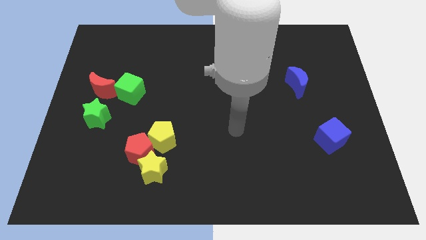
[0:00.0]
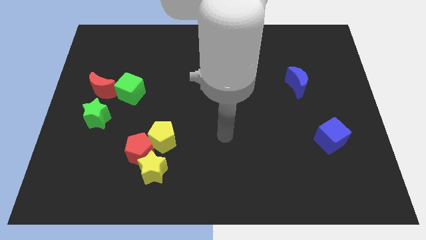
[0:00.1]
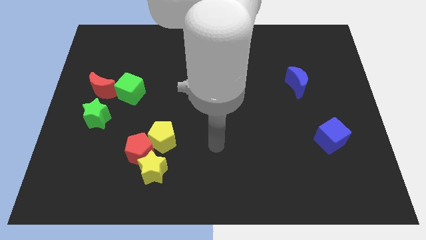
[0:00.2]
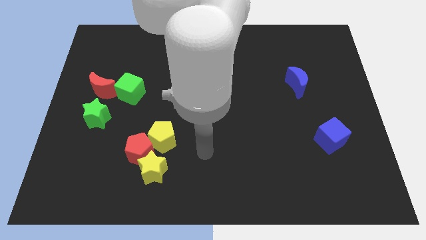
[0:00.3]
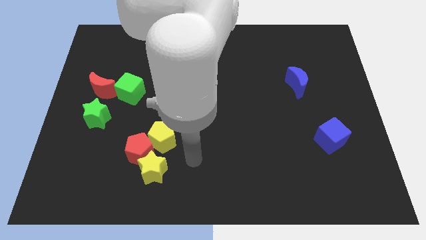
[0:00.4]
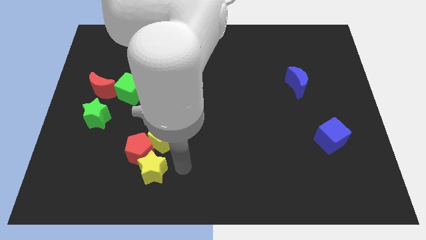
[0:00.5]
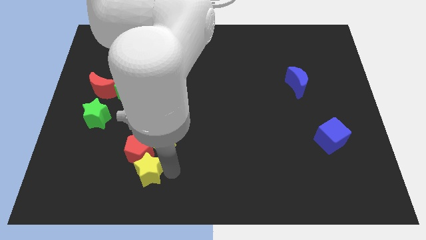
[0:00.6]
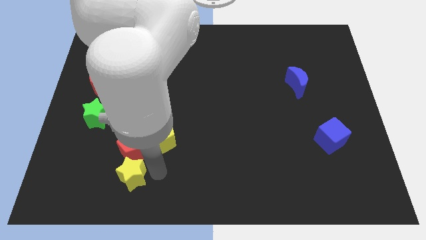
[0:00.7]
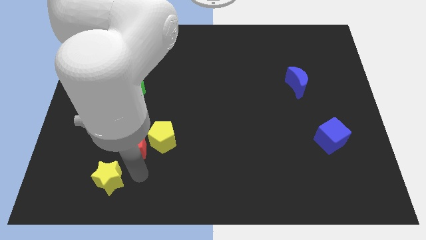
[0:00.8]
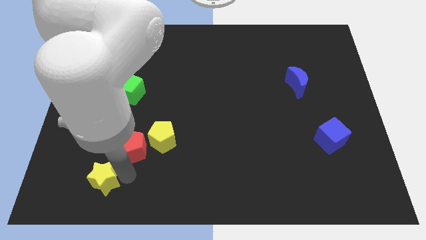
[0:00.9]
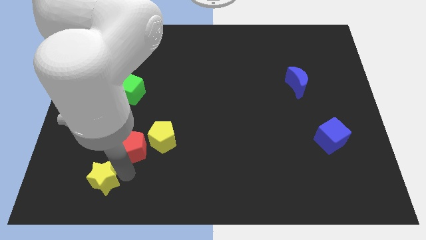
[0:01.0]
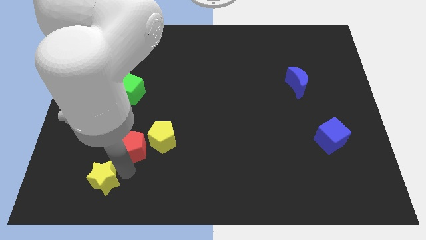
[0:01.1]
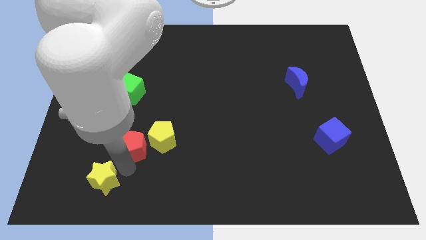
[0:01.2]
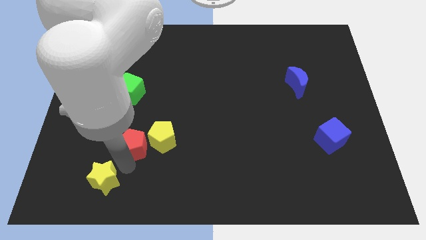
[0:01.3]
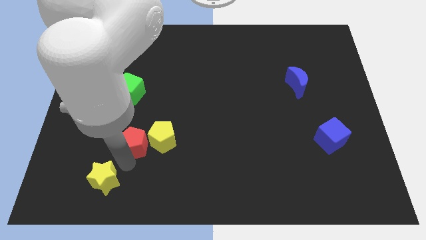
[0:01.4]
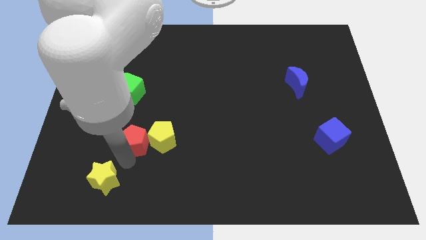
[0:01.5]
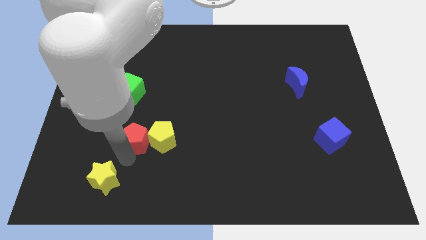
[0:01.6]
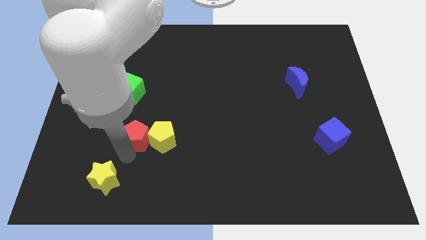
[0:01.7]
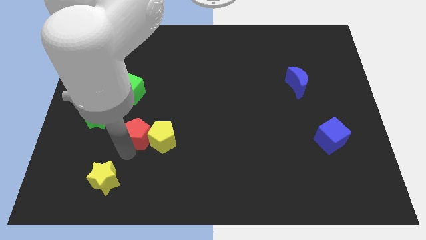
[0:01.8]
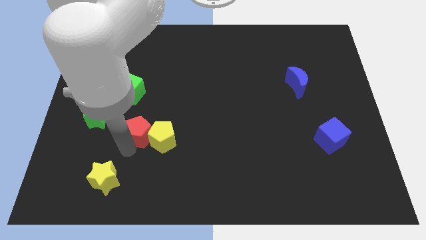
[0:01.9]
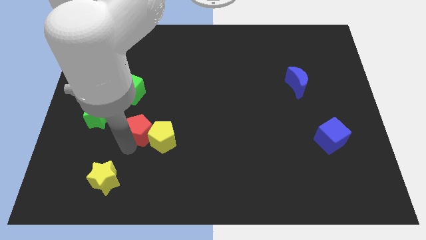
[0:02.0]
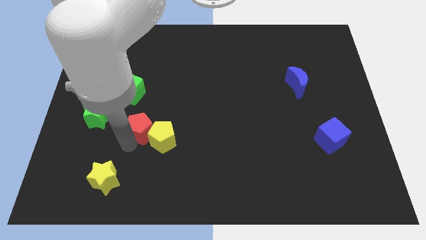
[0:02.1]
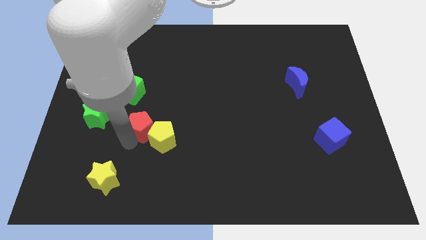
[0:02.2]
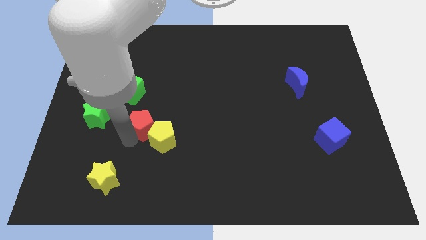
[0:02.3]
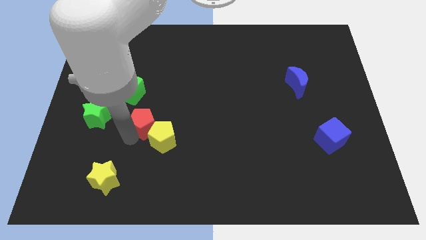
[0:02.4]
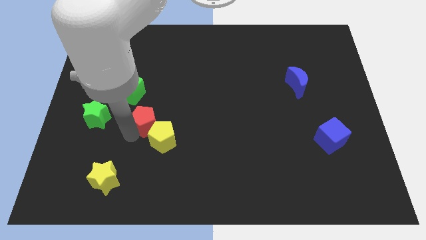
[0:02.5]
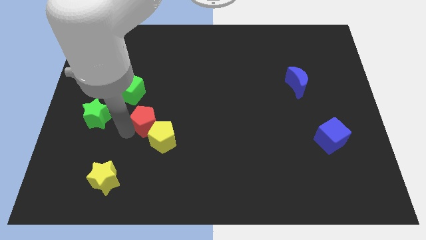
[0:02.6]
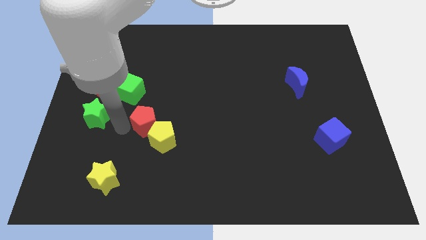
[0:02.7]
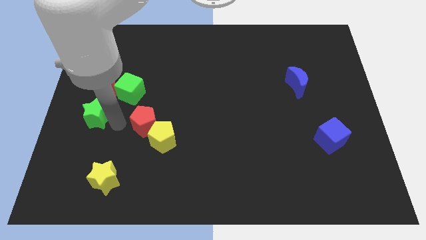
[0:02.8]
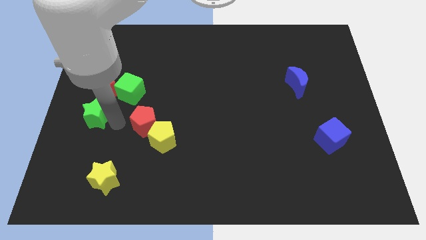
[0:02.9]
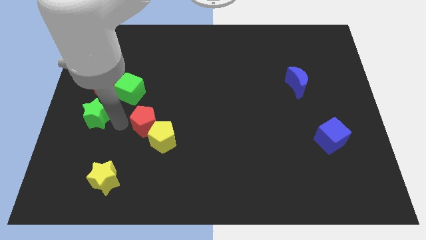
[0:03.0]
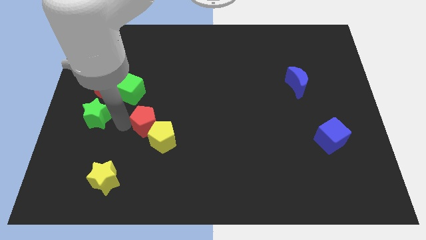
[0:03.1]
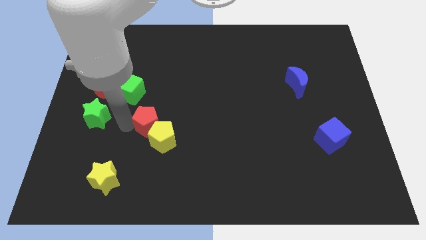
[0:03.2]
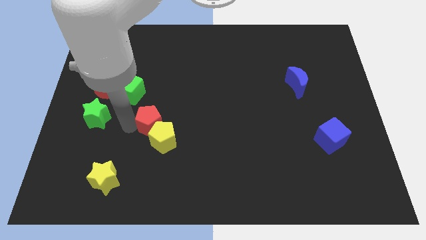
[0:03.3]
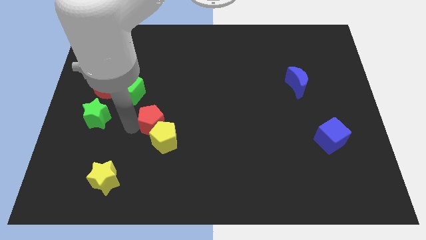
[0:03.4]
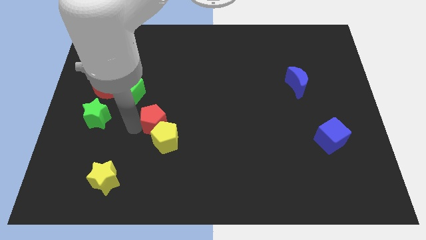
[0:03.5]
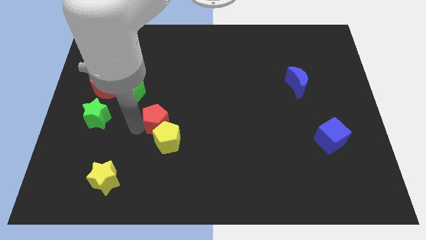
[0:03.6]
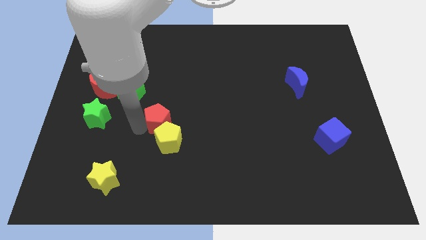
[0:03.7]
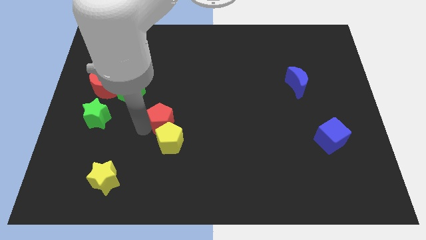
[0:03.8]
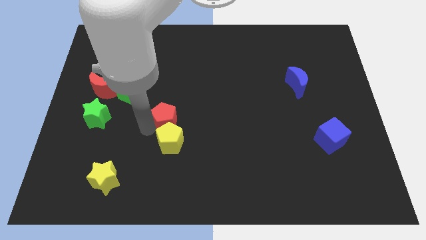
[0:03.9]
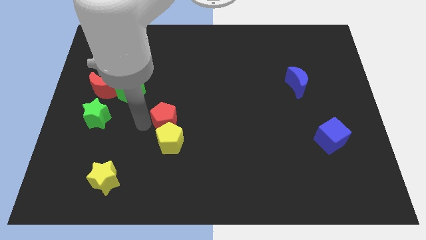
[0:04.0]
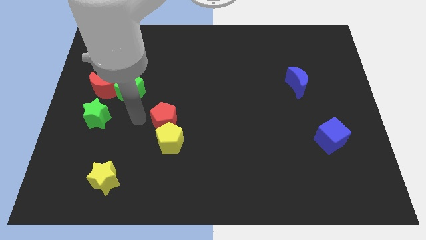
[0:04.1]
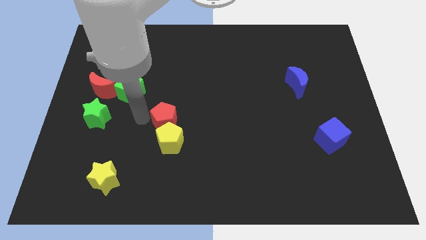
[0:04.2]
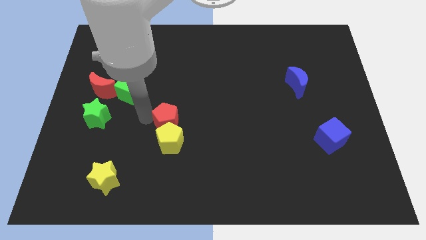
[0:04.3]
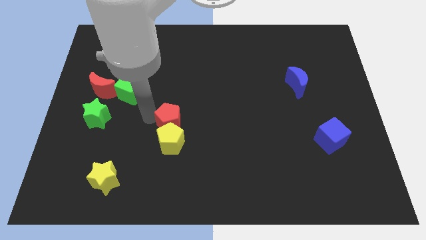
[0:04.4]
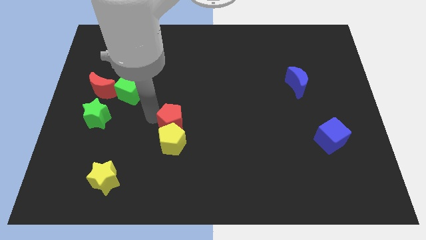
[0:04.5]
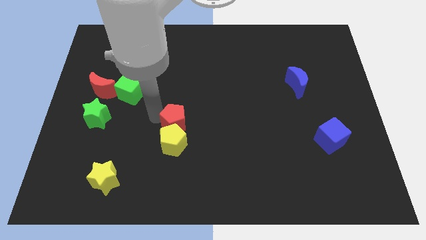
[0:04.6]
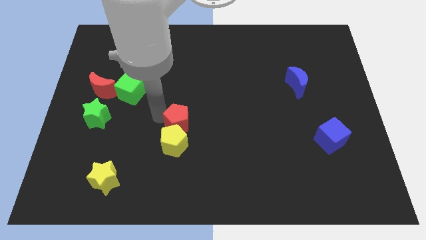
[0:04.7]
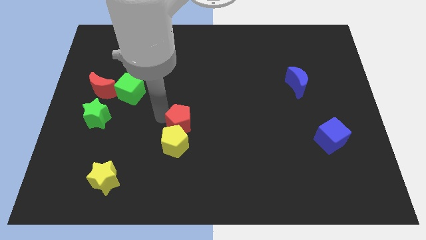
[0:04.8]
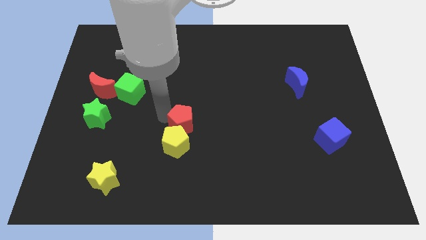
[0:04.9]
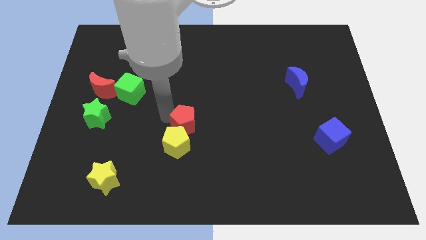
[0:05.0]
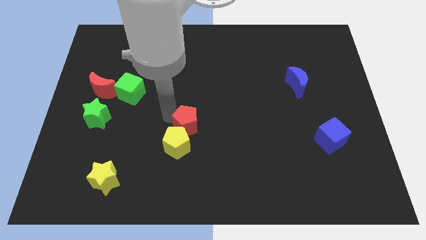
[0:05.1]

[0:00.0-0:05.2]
slightly push the red pentagon right

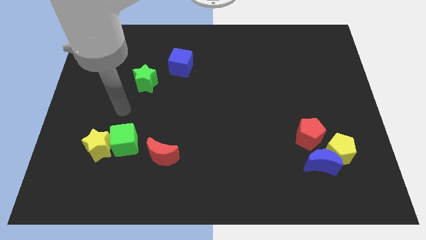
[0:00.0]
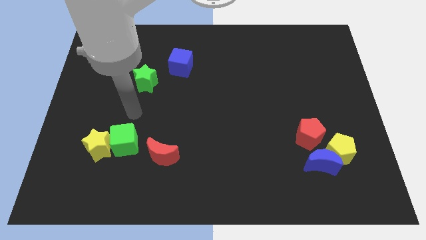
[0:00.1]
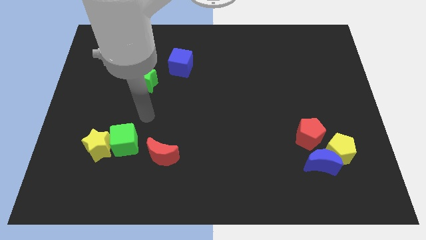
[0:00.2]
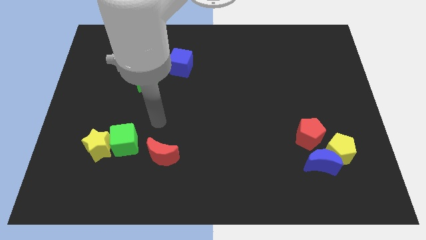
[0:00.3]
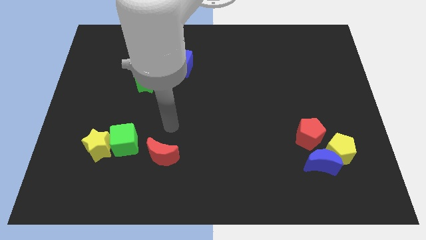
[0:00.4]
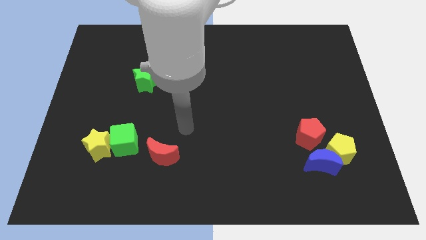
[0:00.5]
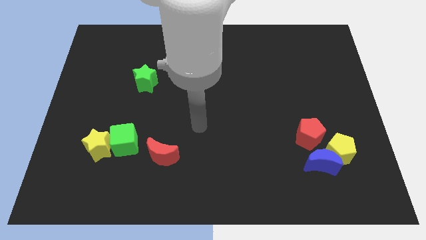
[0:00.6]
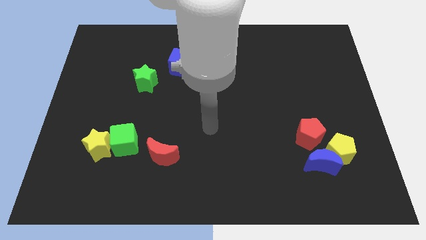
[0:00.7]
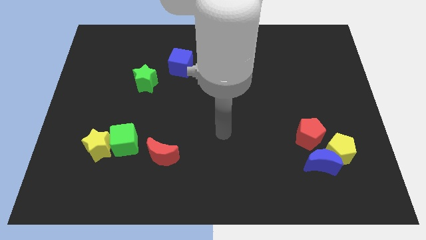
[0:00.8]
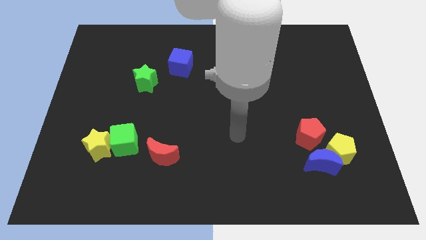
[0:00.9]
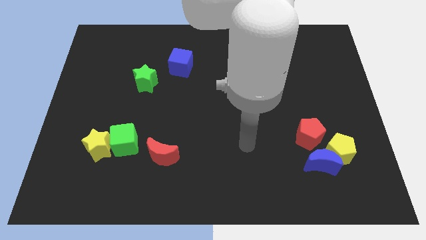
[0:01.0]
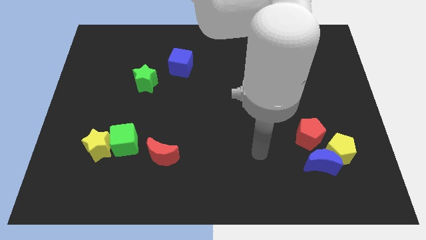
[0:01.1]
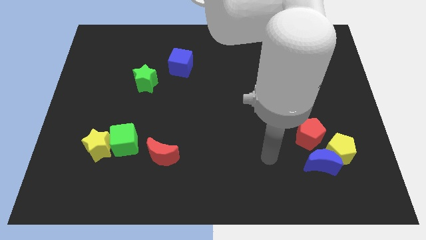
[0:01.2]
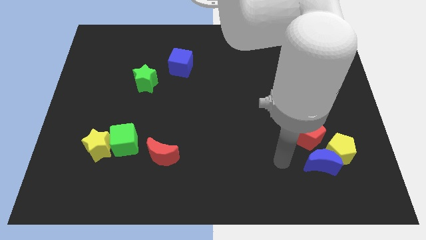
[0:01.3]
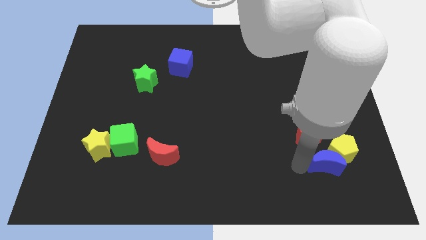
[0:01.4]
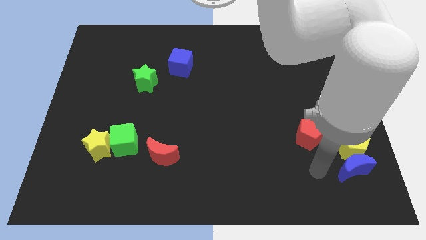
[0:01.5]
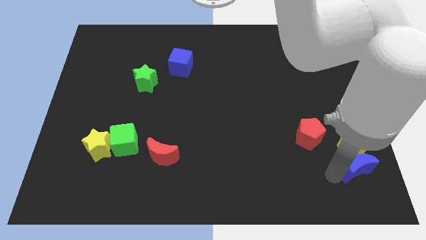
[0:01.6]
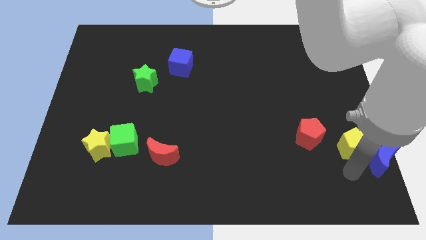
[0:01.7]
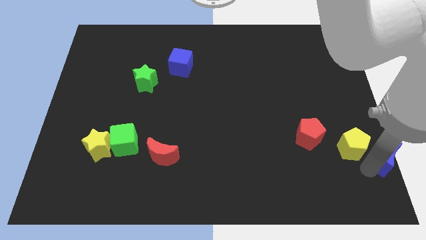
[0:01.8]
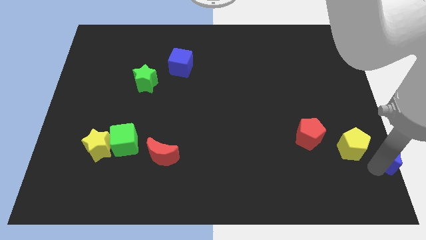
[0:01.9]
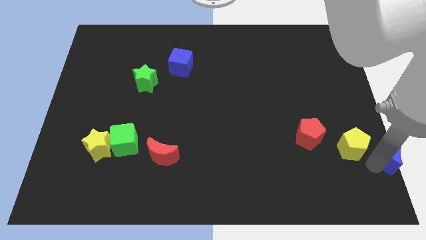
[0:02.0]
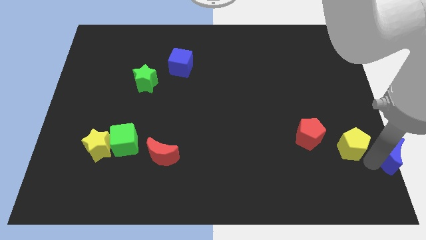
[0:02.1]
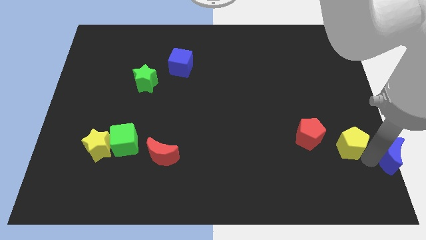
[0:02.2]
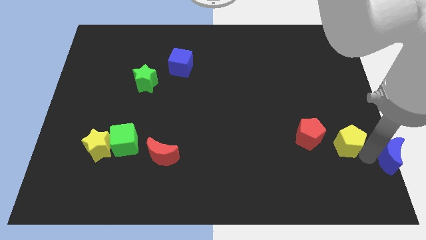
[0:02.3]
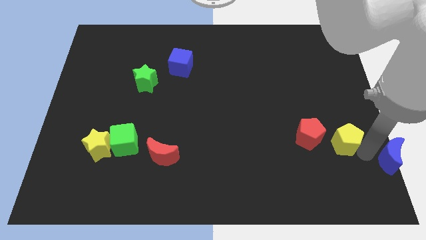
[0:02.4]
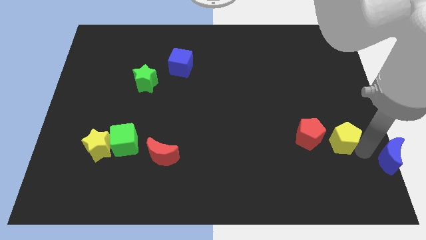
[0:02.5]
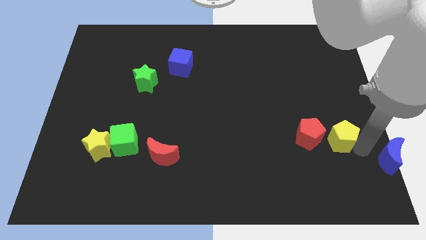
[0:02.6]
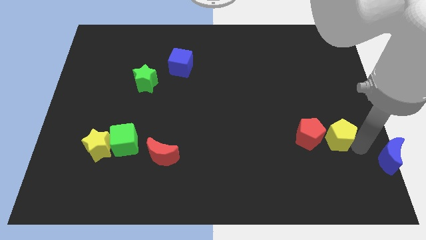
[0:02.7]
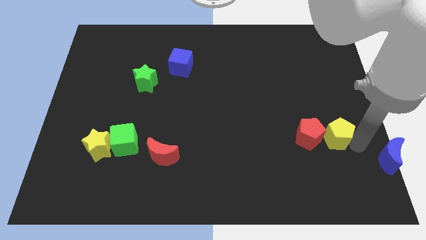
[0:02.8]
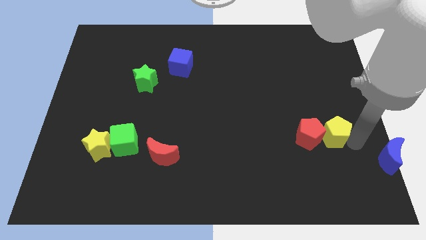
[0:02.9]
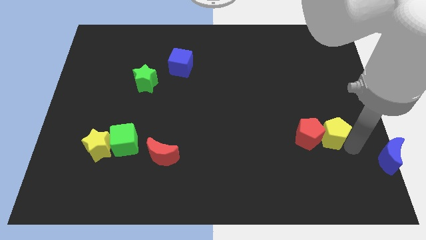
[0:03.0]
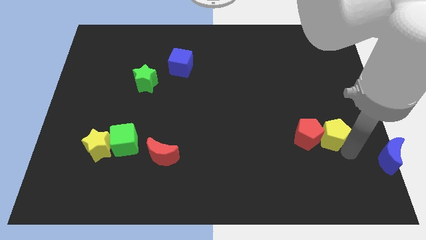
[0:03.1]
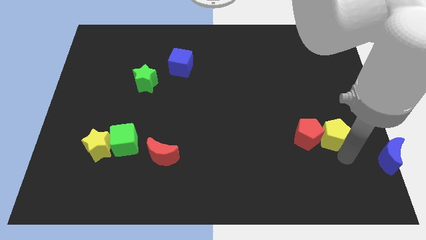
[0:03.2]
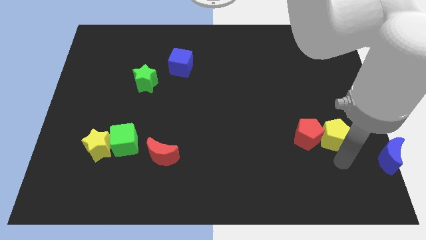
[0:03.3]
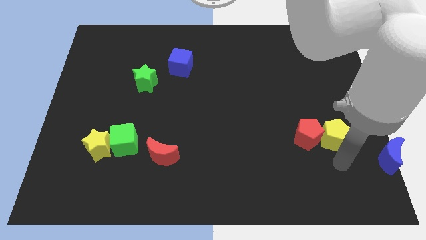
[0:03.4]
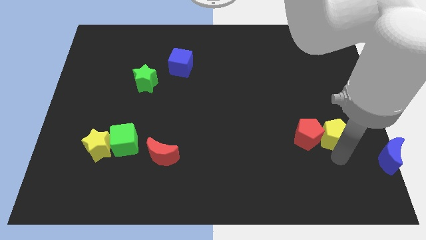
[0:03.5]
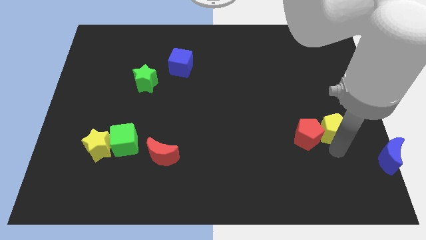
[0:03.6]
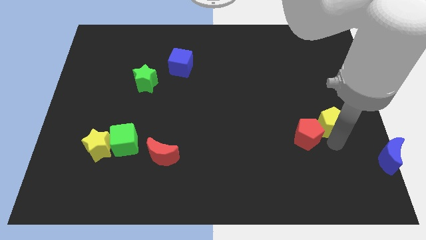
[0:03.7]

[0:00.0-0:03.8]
slightly slide the yellow pentagon upwards
